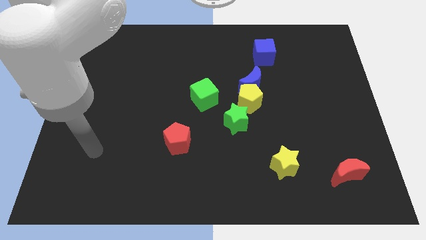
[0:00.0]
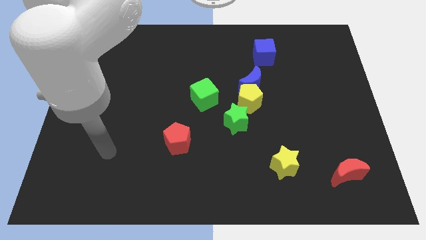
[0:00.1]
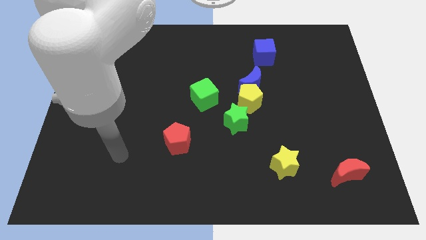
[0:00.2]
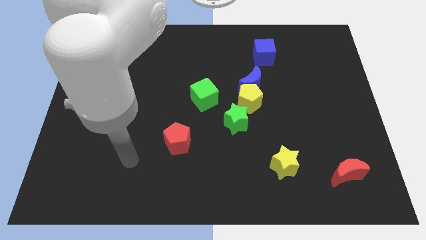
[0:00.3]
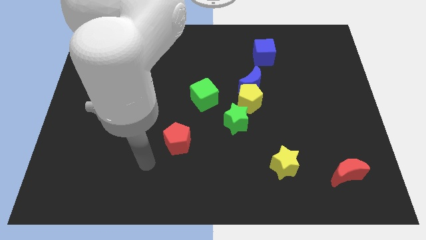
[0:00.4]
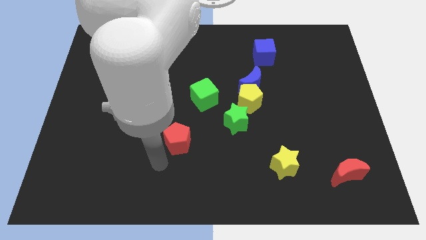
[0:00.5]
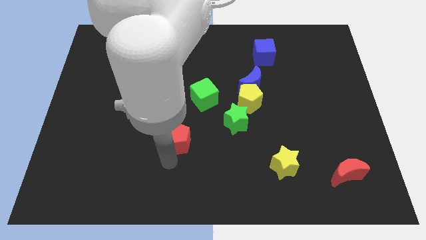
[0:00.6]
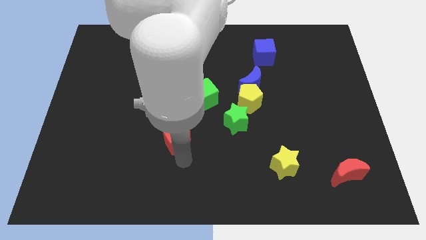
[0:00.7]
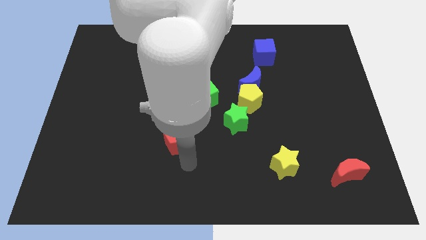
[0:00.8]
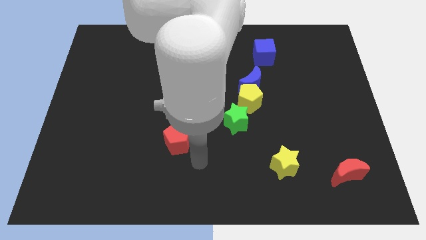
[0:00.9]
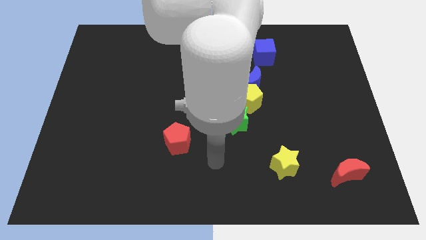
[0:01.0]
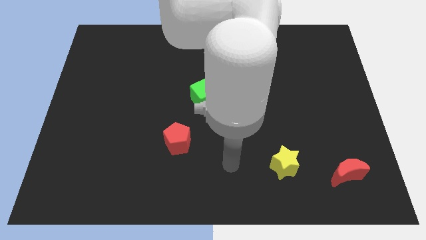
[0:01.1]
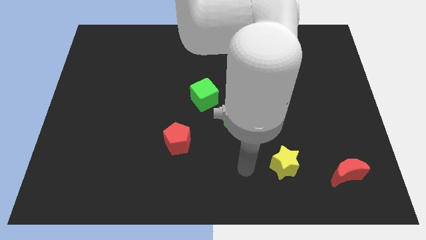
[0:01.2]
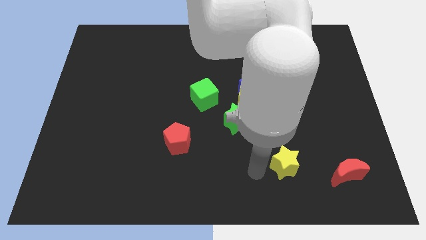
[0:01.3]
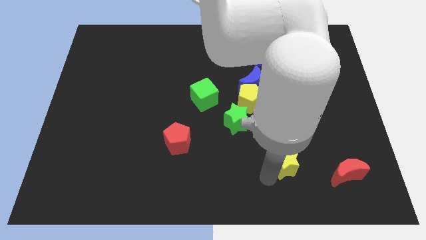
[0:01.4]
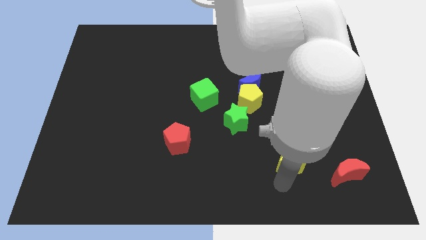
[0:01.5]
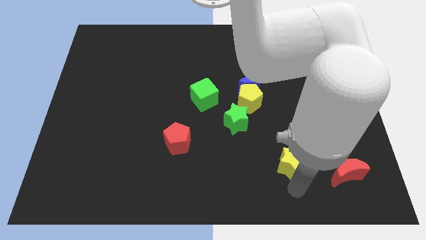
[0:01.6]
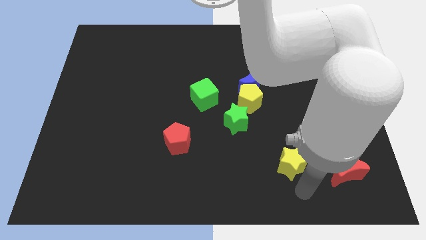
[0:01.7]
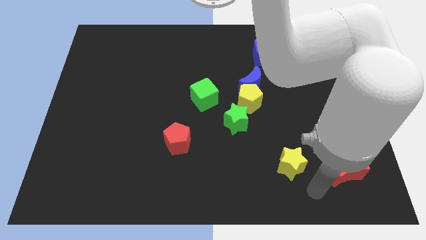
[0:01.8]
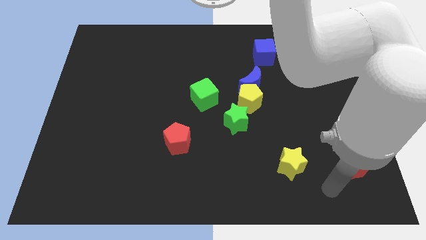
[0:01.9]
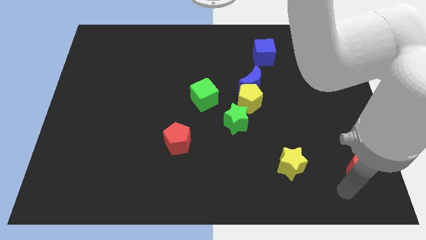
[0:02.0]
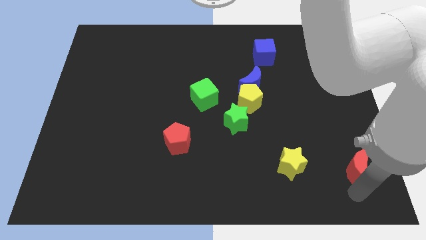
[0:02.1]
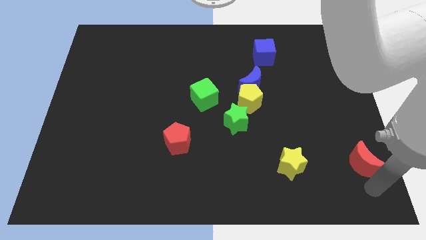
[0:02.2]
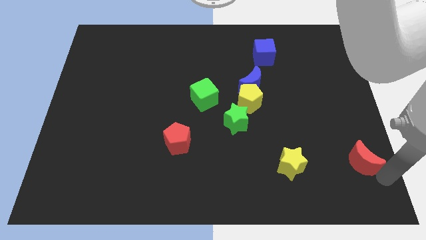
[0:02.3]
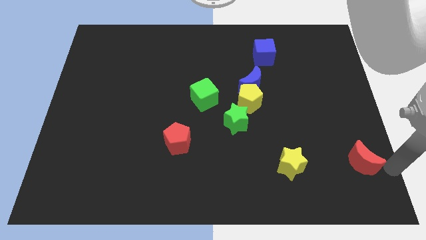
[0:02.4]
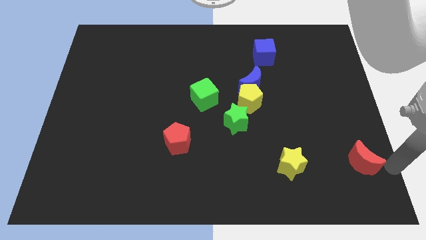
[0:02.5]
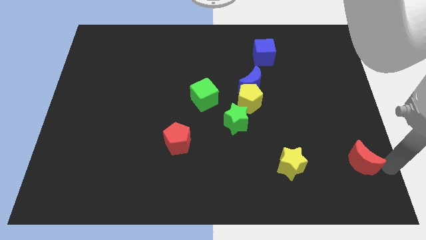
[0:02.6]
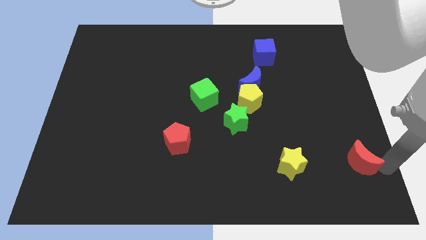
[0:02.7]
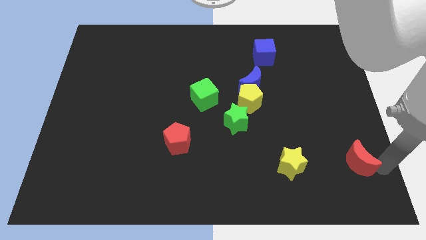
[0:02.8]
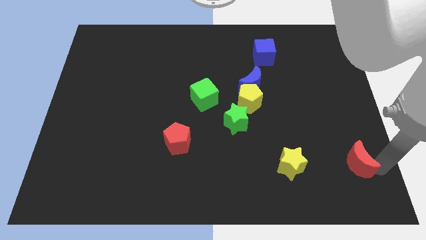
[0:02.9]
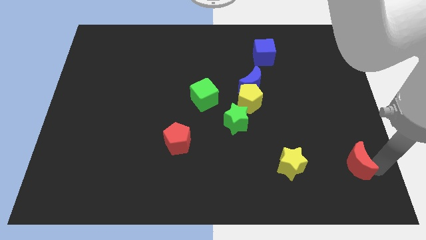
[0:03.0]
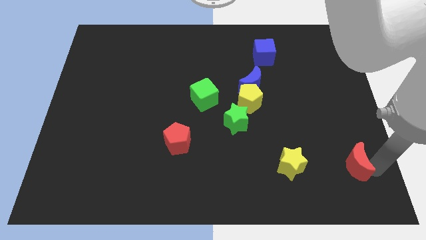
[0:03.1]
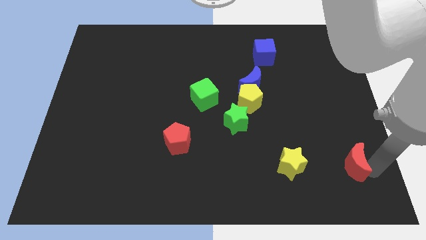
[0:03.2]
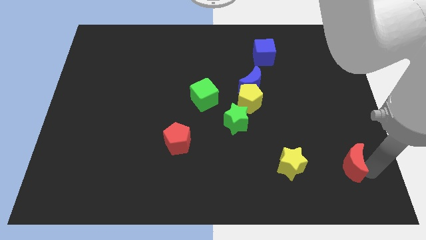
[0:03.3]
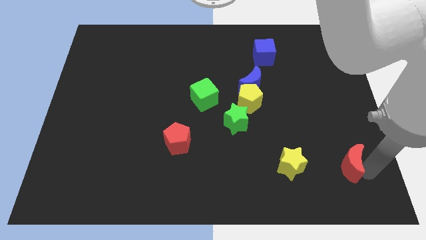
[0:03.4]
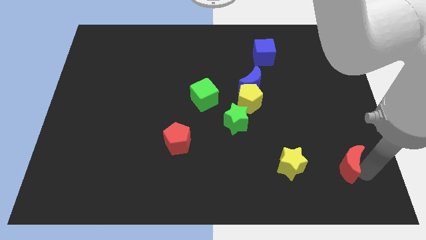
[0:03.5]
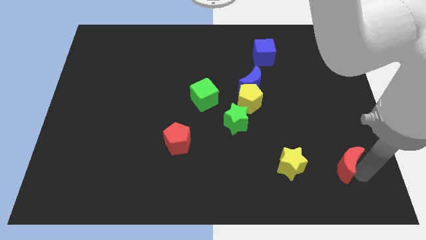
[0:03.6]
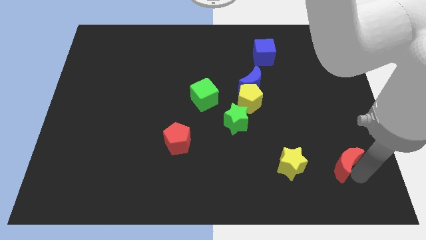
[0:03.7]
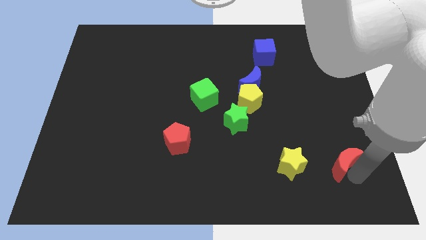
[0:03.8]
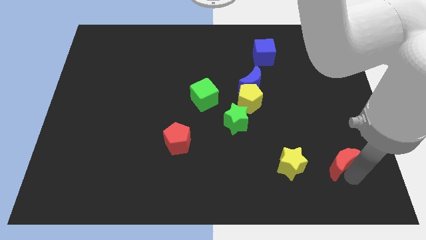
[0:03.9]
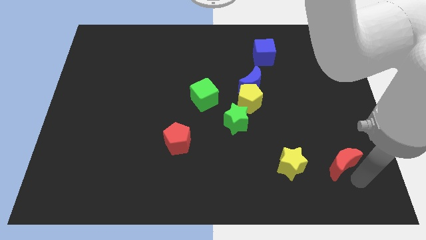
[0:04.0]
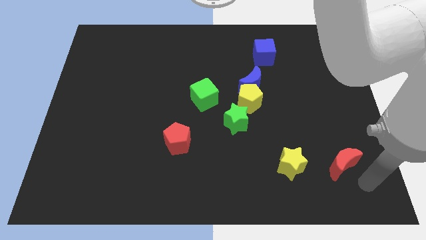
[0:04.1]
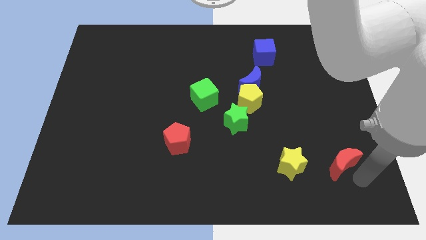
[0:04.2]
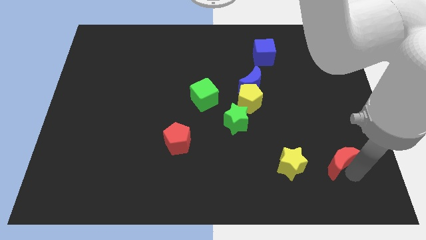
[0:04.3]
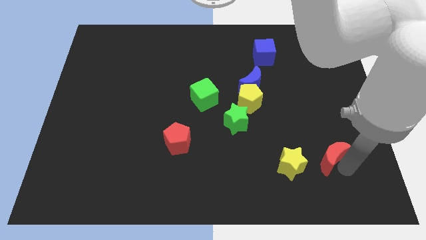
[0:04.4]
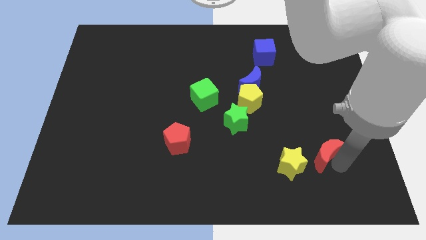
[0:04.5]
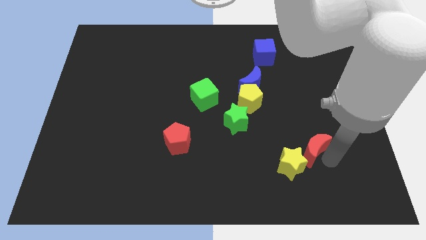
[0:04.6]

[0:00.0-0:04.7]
slide the red moon diagonally up and left a little

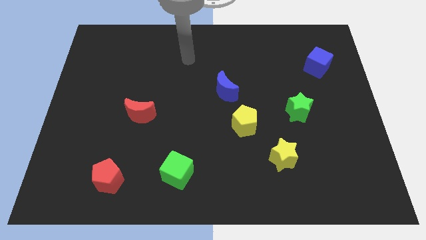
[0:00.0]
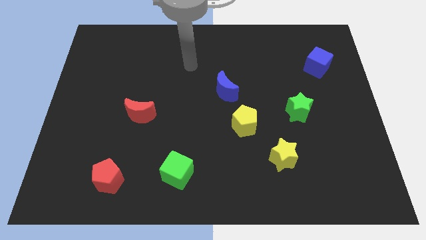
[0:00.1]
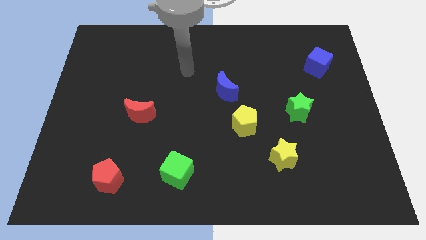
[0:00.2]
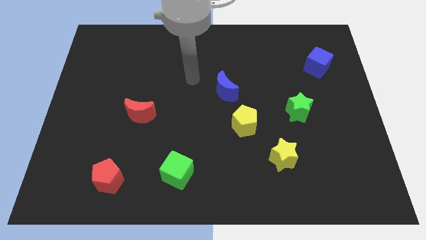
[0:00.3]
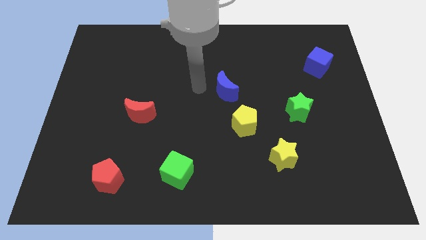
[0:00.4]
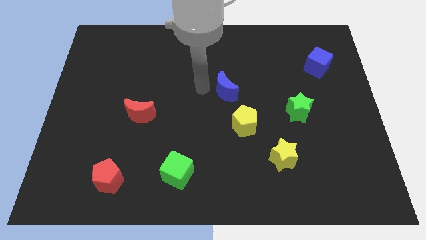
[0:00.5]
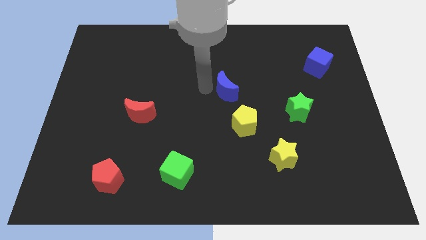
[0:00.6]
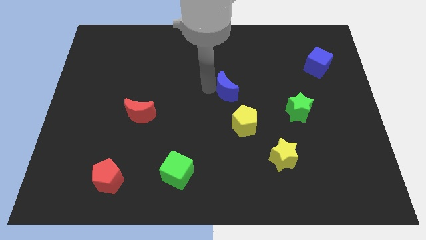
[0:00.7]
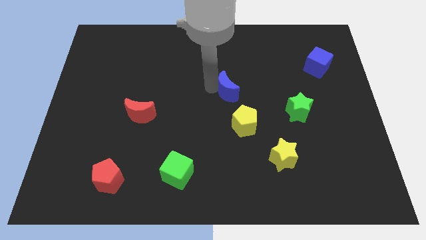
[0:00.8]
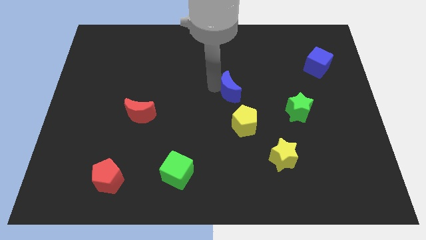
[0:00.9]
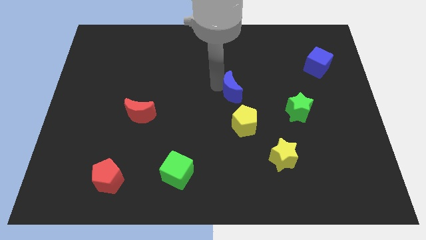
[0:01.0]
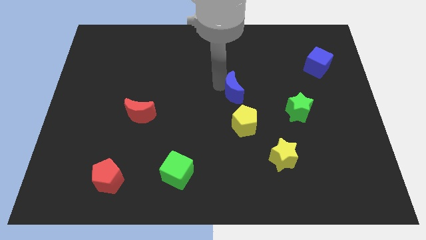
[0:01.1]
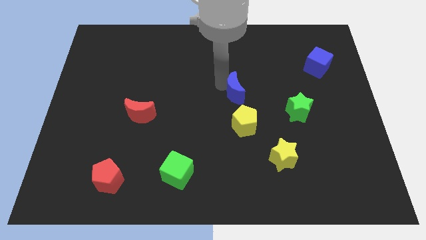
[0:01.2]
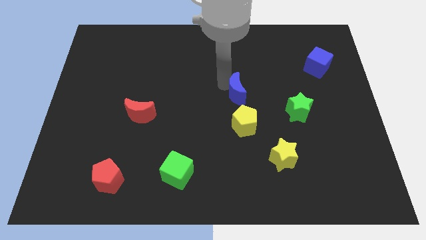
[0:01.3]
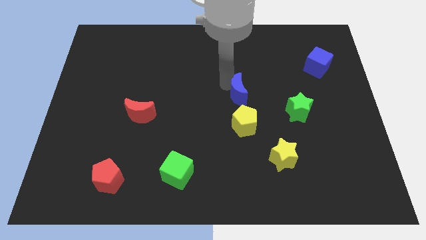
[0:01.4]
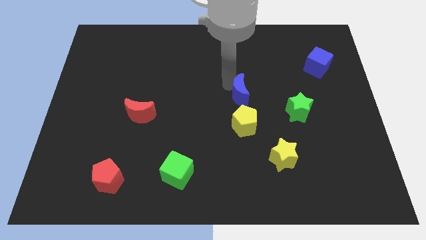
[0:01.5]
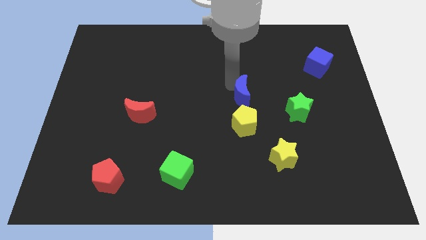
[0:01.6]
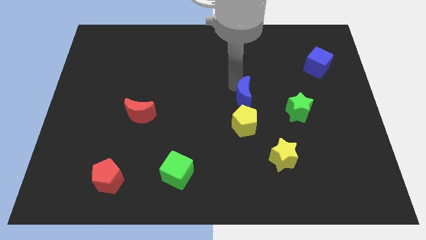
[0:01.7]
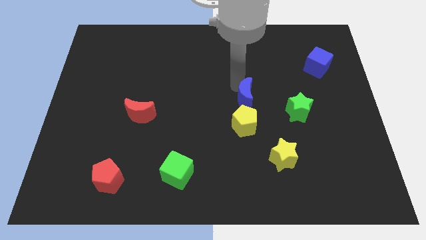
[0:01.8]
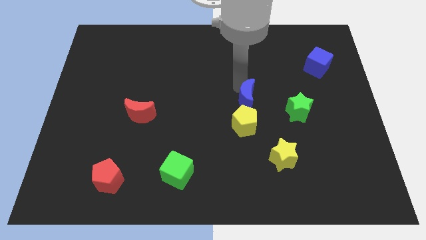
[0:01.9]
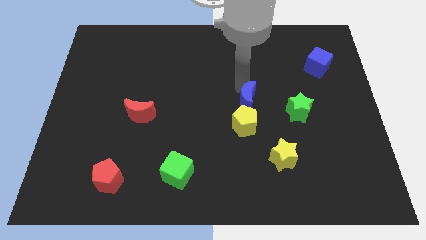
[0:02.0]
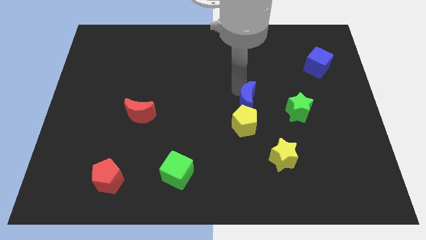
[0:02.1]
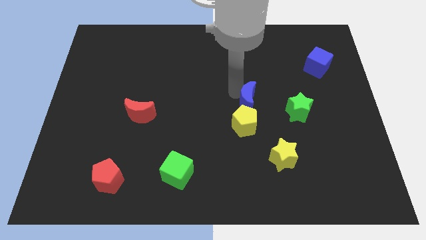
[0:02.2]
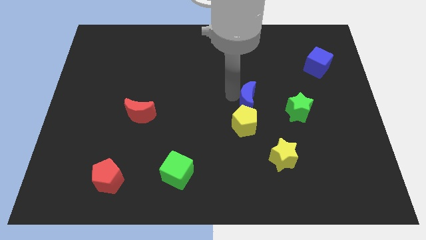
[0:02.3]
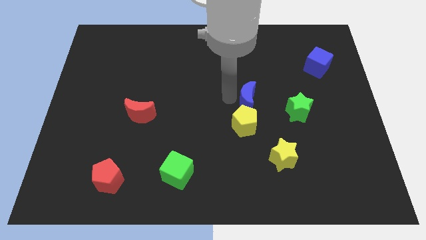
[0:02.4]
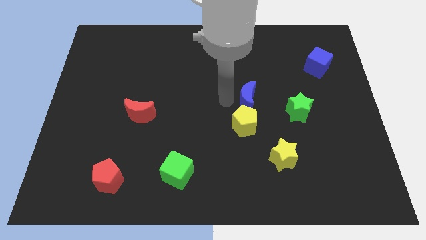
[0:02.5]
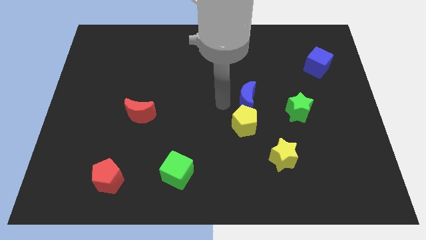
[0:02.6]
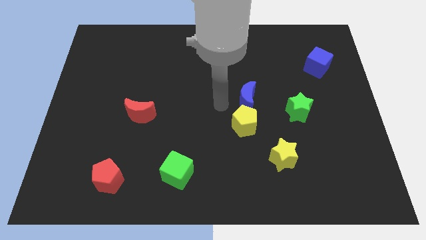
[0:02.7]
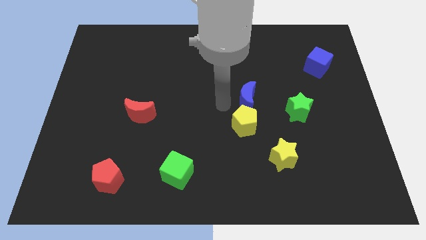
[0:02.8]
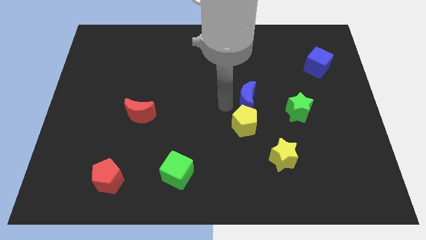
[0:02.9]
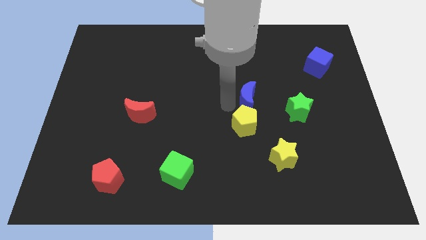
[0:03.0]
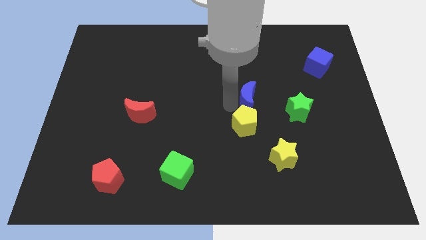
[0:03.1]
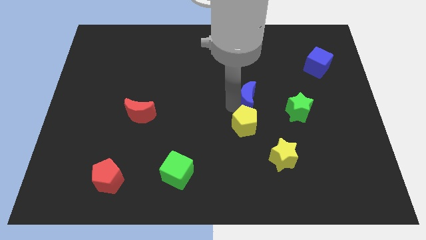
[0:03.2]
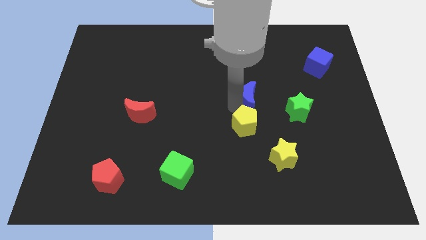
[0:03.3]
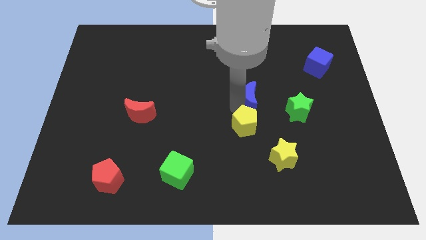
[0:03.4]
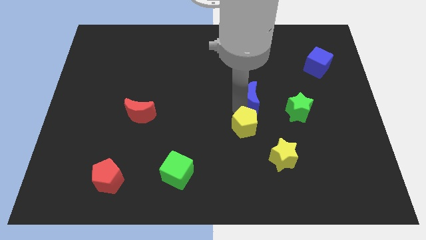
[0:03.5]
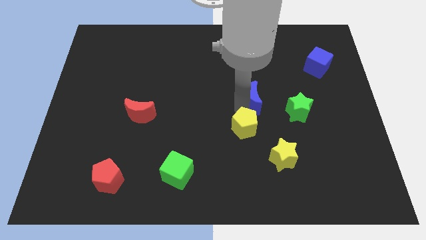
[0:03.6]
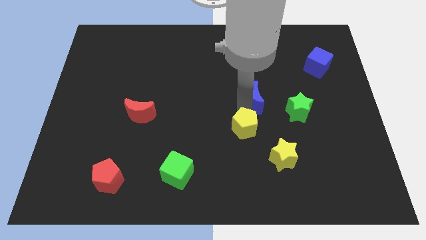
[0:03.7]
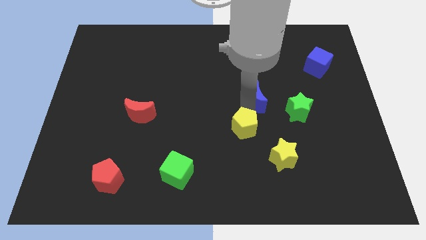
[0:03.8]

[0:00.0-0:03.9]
push the blue moon a little bit right
